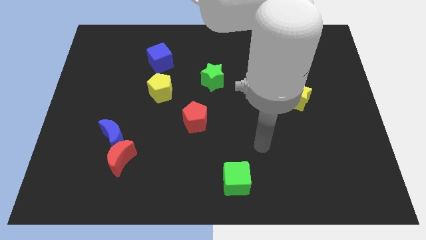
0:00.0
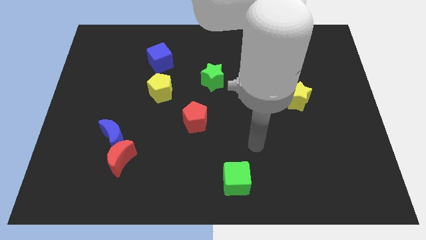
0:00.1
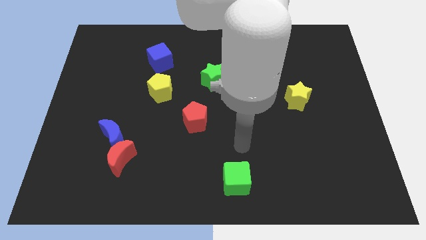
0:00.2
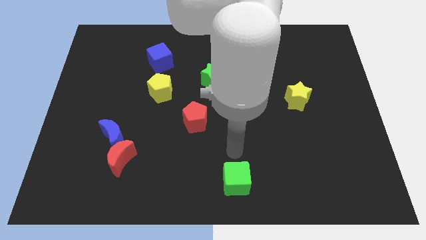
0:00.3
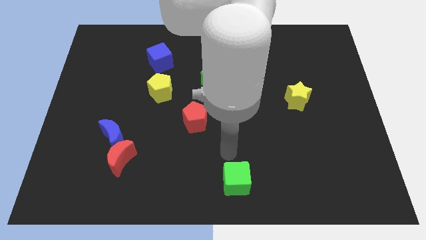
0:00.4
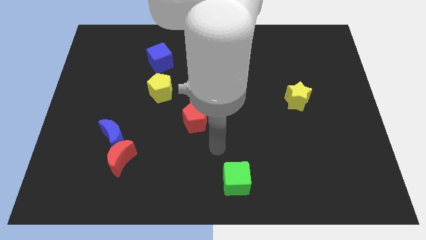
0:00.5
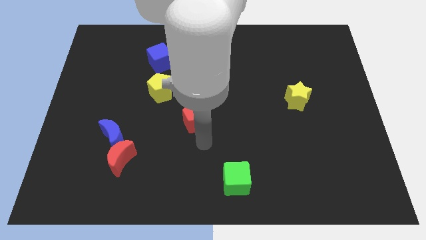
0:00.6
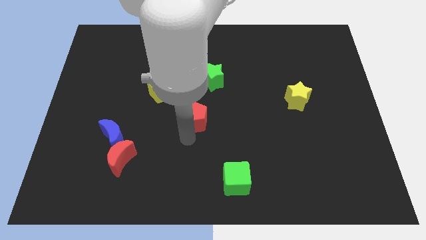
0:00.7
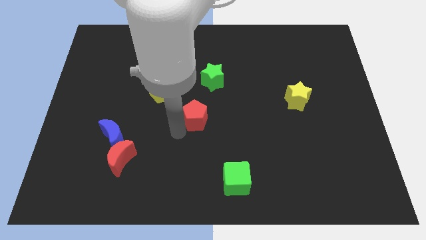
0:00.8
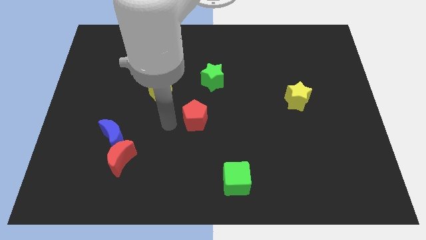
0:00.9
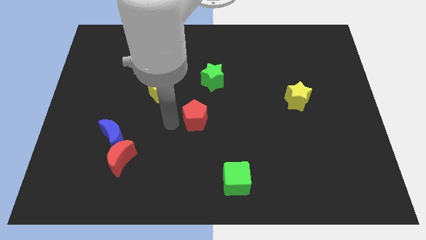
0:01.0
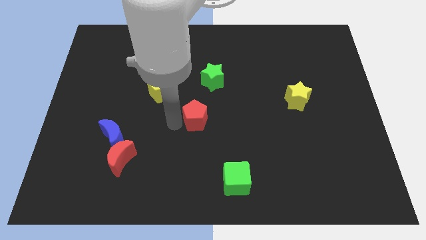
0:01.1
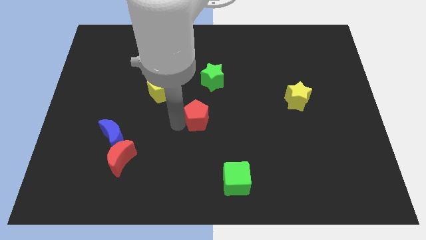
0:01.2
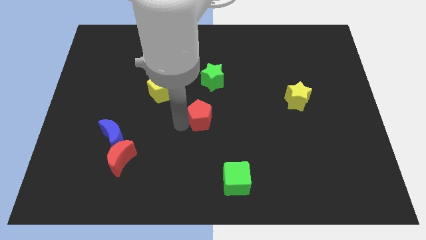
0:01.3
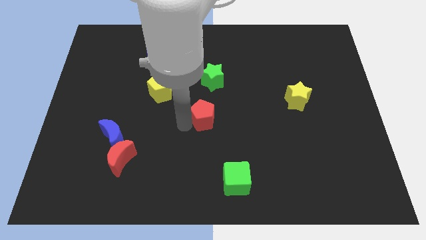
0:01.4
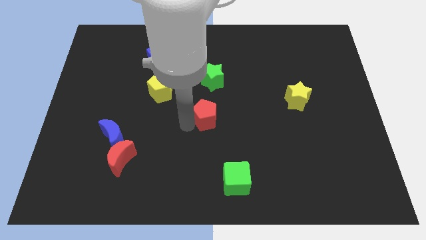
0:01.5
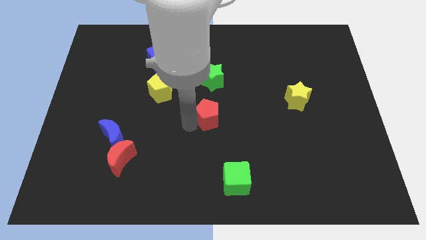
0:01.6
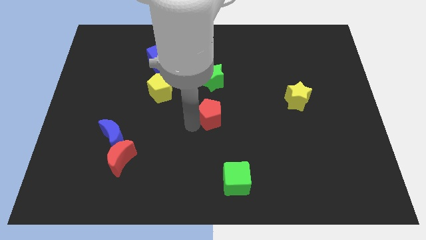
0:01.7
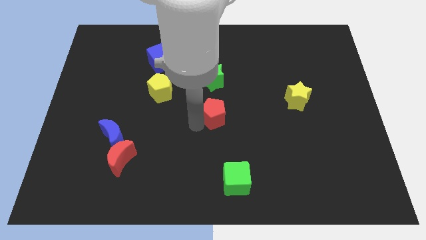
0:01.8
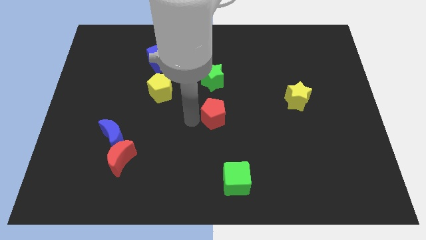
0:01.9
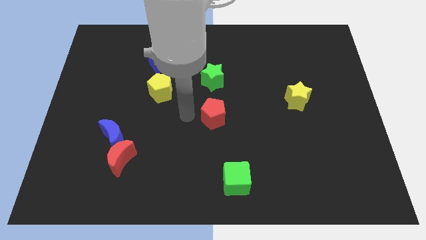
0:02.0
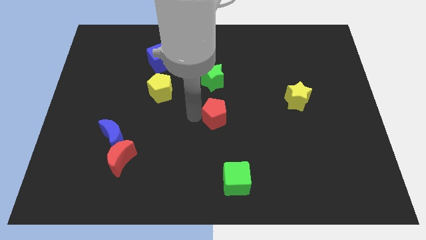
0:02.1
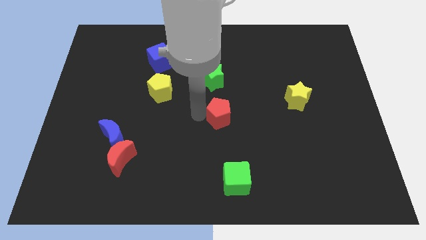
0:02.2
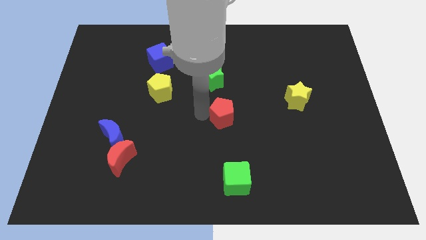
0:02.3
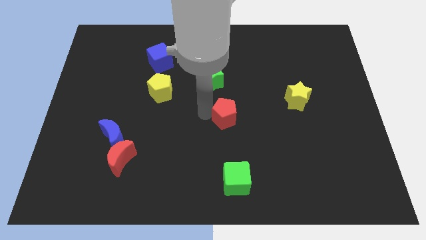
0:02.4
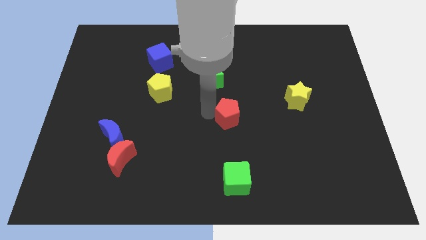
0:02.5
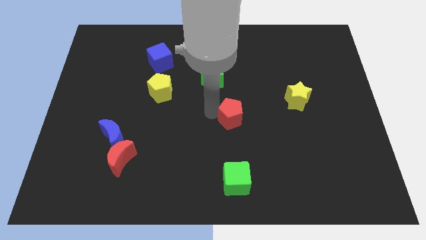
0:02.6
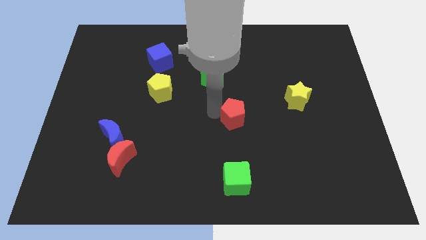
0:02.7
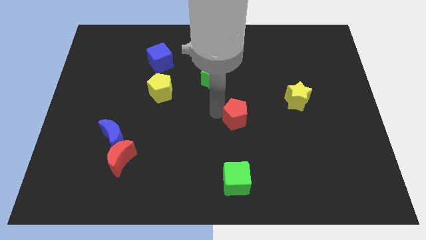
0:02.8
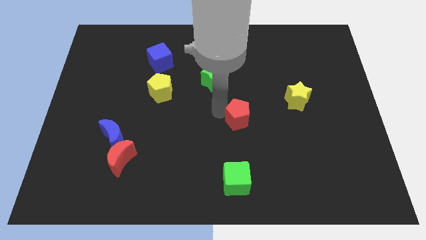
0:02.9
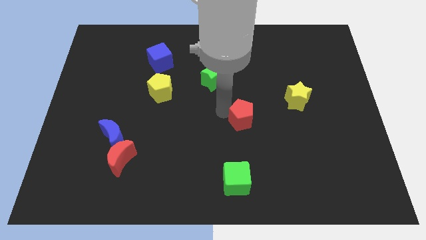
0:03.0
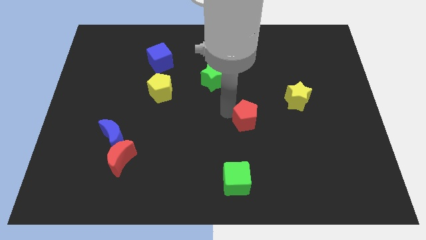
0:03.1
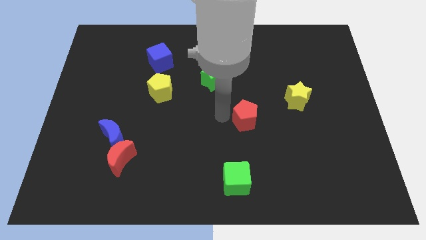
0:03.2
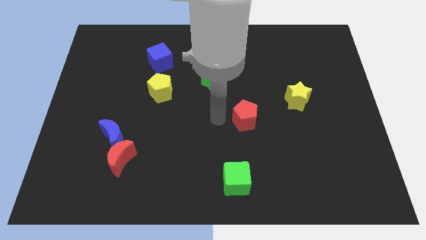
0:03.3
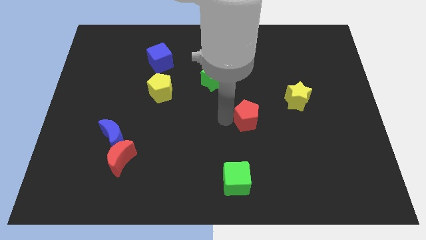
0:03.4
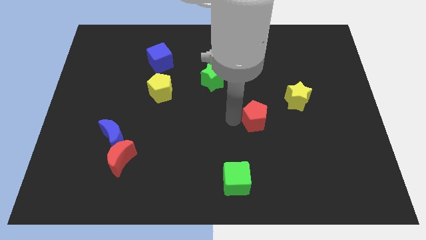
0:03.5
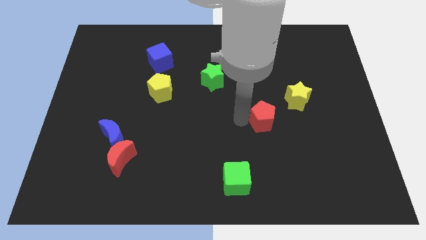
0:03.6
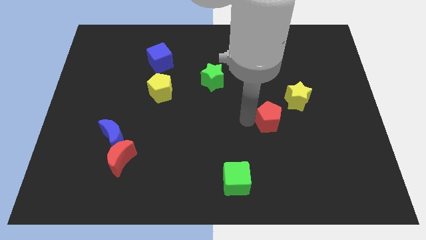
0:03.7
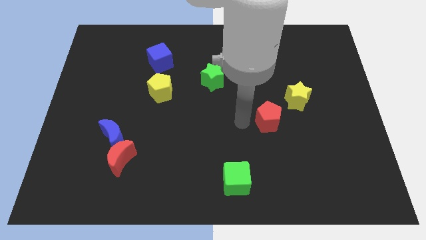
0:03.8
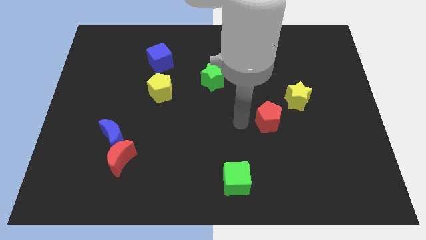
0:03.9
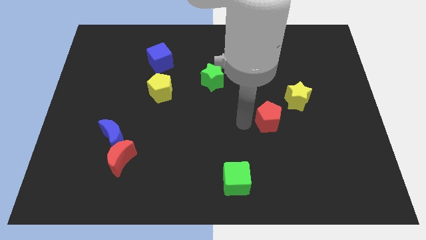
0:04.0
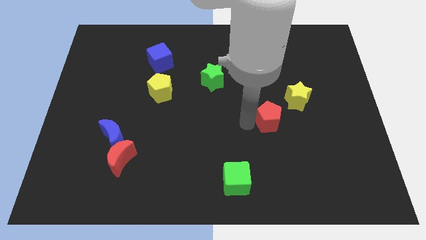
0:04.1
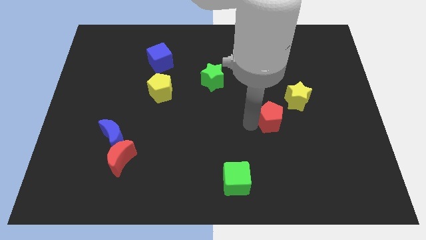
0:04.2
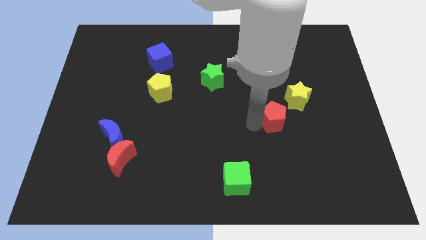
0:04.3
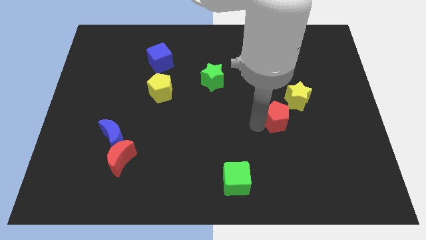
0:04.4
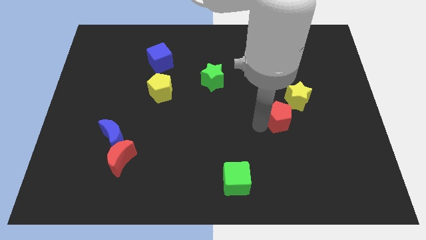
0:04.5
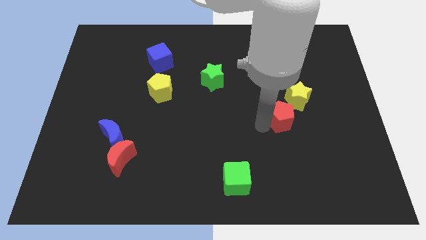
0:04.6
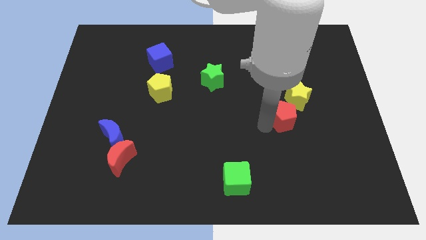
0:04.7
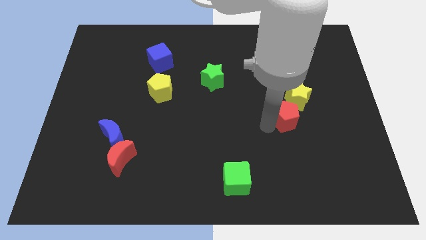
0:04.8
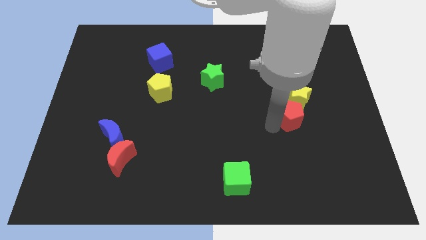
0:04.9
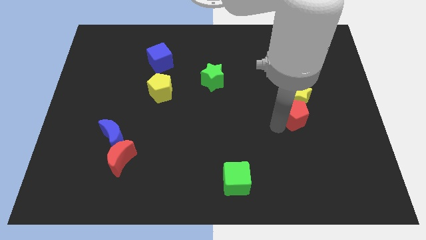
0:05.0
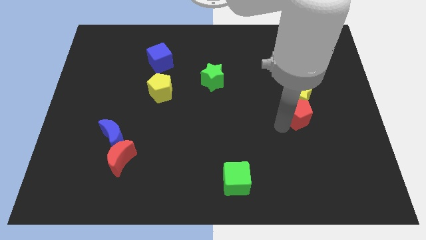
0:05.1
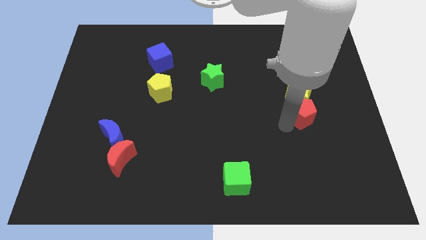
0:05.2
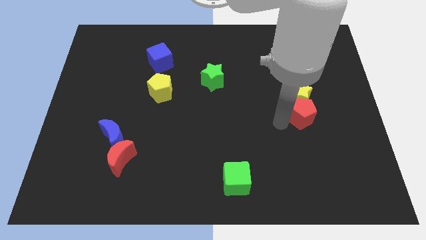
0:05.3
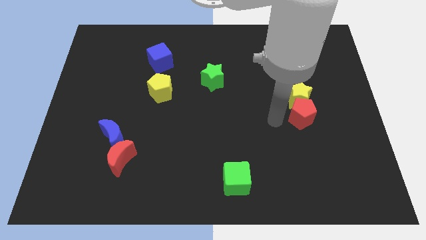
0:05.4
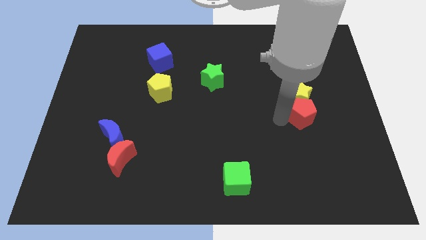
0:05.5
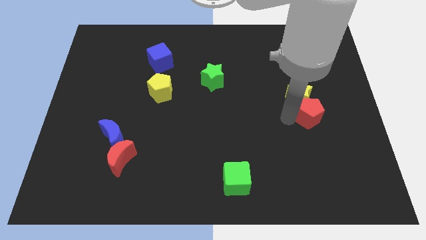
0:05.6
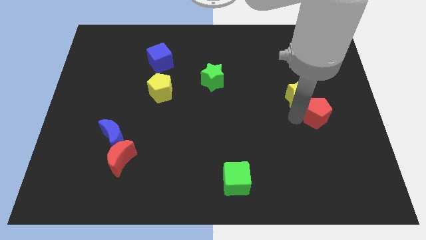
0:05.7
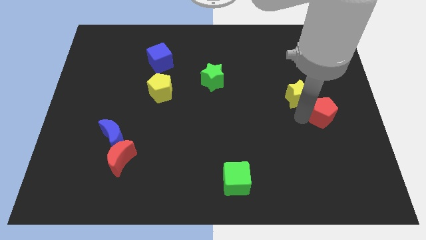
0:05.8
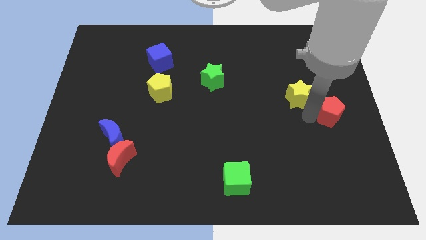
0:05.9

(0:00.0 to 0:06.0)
slide the red pentagon to the right side of the board

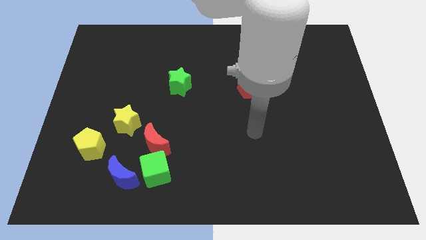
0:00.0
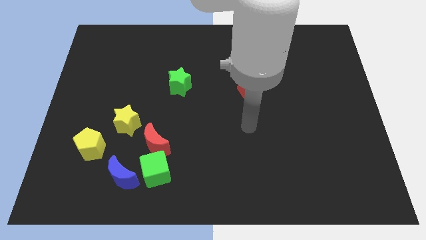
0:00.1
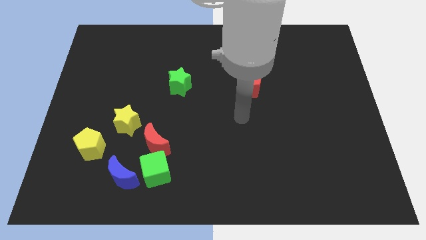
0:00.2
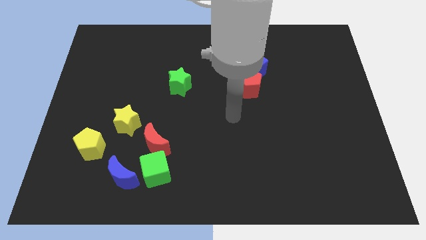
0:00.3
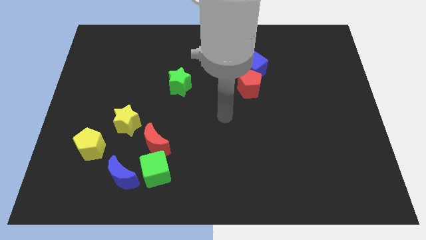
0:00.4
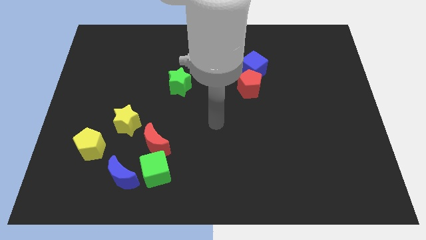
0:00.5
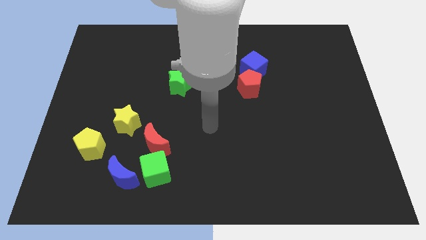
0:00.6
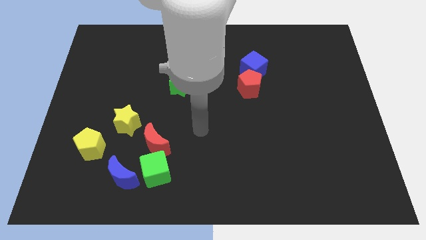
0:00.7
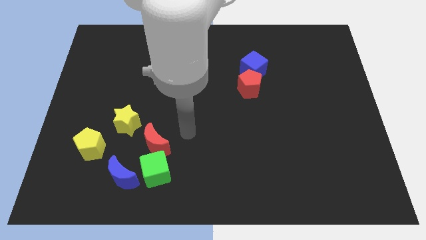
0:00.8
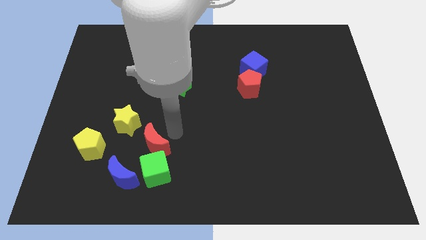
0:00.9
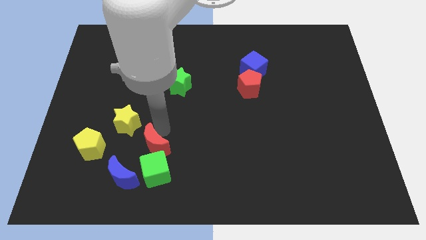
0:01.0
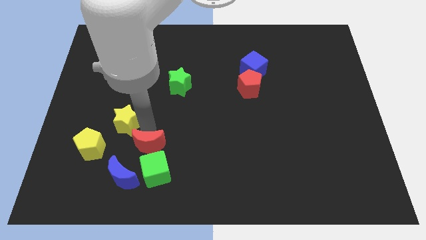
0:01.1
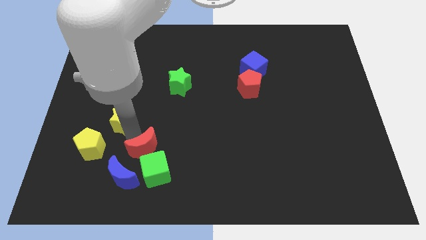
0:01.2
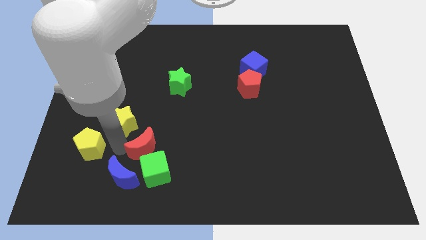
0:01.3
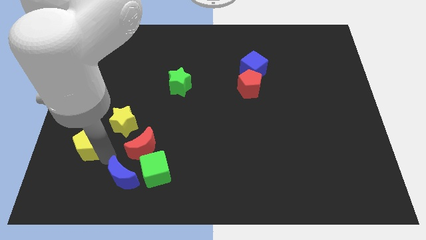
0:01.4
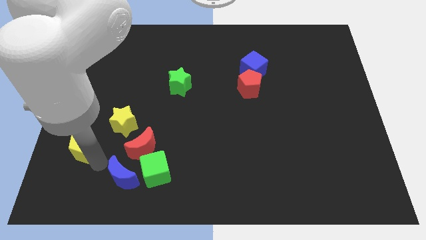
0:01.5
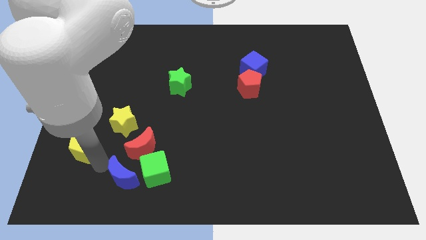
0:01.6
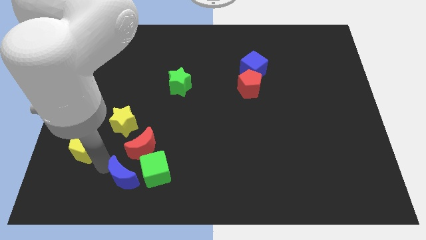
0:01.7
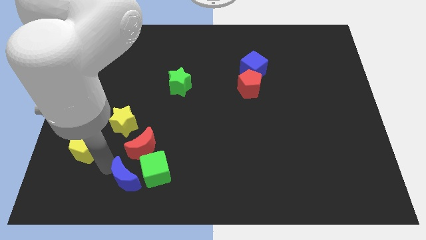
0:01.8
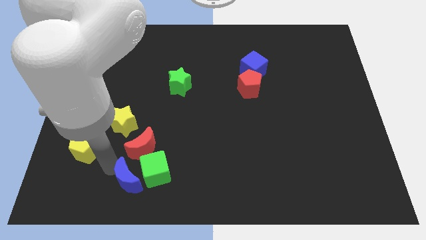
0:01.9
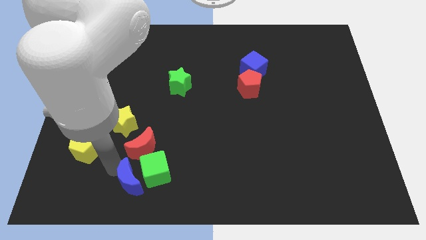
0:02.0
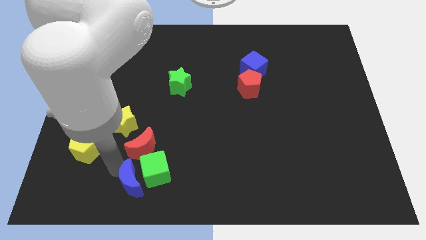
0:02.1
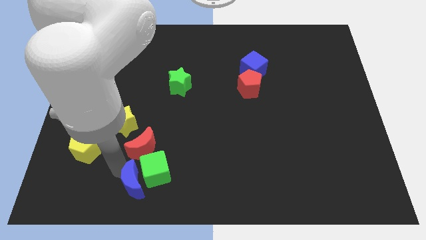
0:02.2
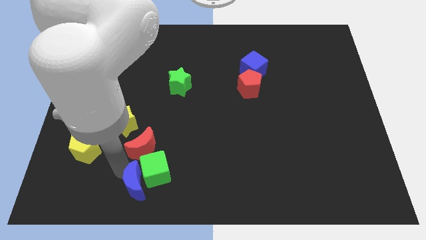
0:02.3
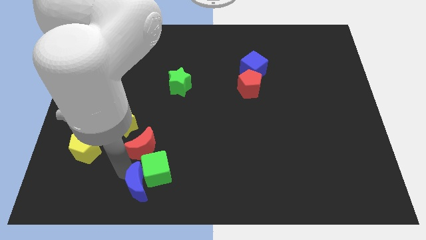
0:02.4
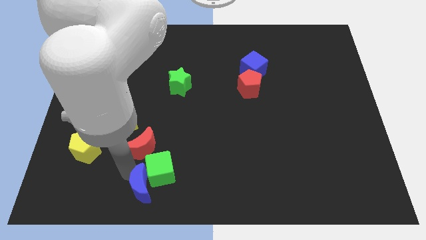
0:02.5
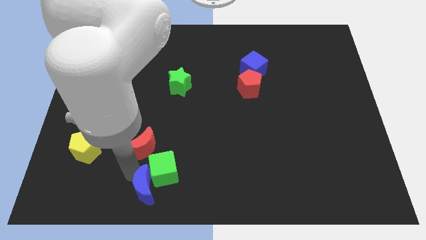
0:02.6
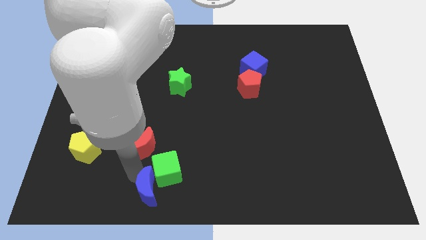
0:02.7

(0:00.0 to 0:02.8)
move the blue moon to the bottom
